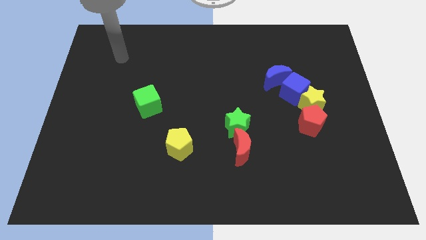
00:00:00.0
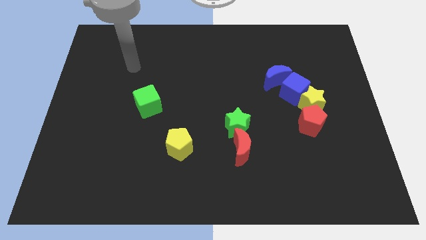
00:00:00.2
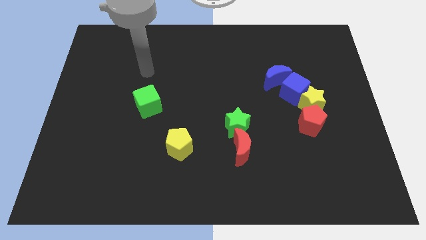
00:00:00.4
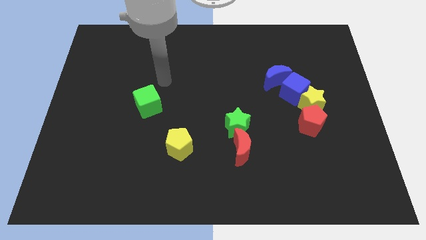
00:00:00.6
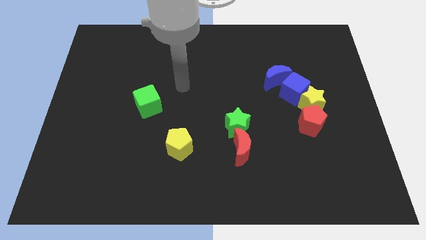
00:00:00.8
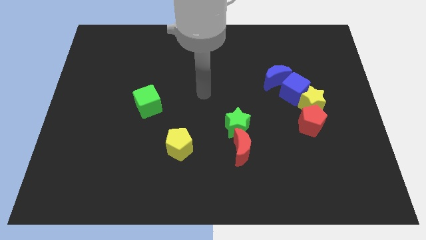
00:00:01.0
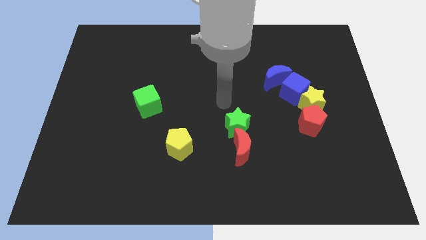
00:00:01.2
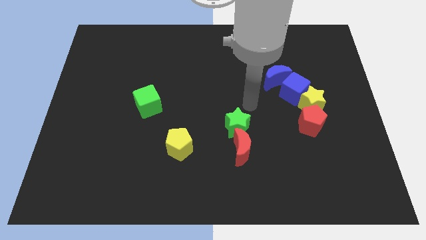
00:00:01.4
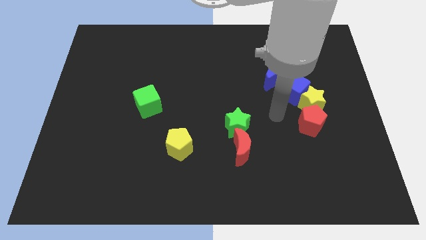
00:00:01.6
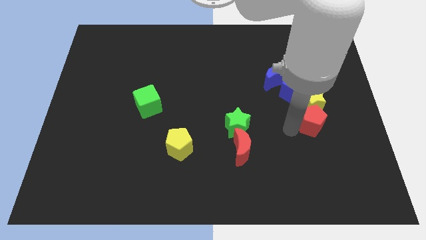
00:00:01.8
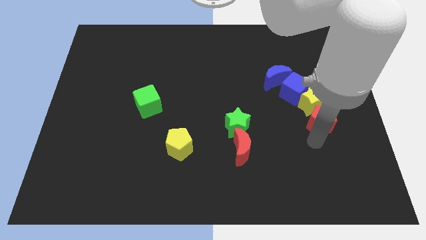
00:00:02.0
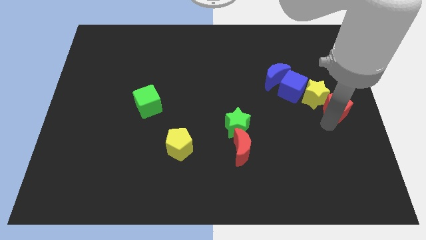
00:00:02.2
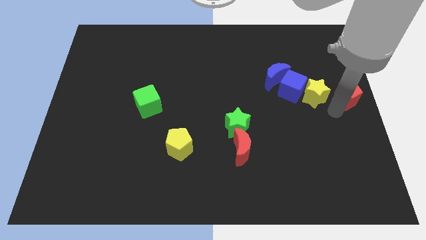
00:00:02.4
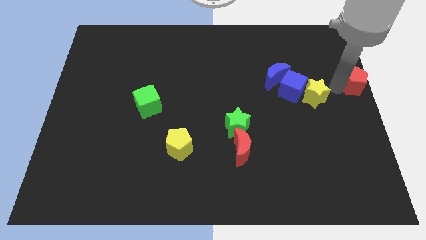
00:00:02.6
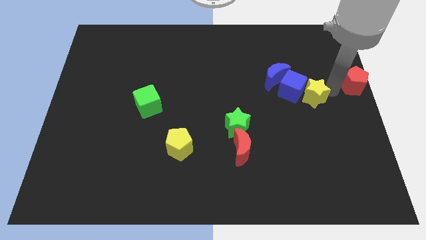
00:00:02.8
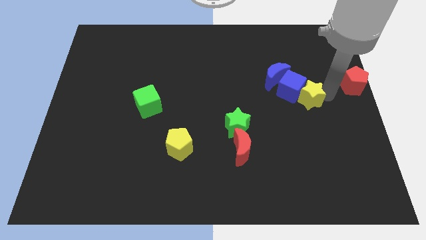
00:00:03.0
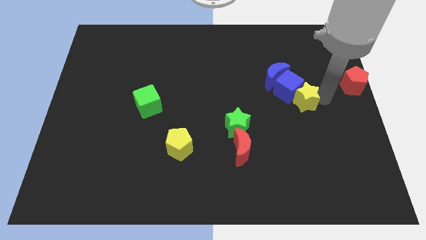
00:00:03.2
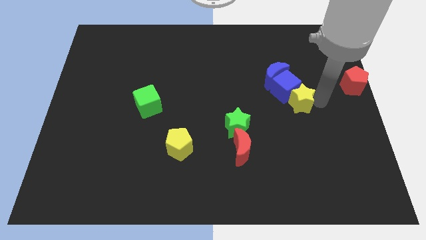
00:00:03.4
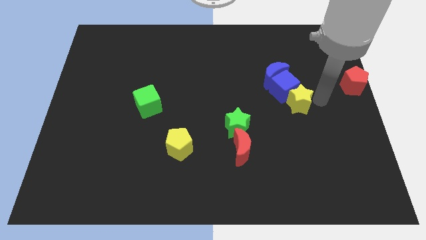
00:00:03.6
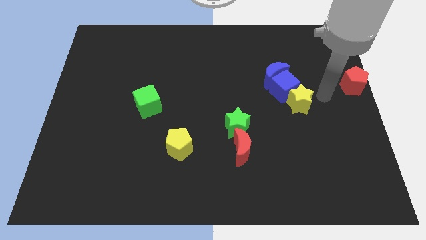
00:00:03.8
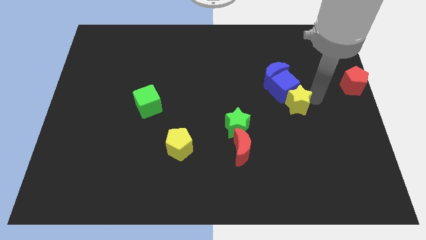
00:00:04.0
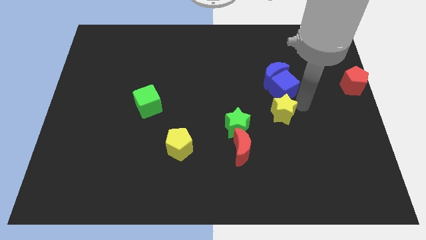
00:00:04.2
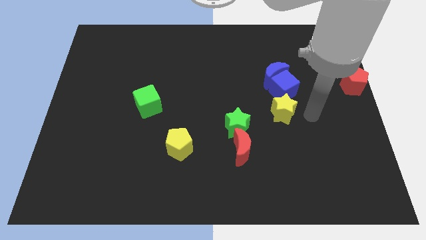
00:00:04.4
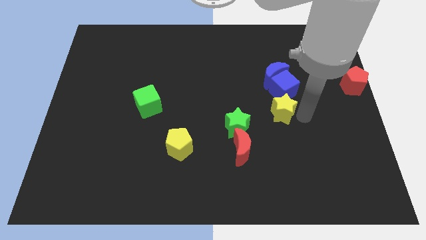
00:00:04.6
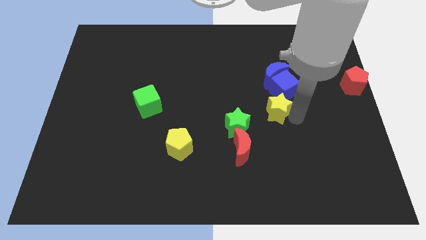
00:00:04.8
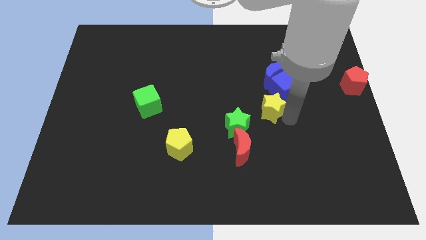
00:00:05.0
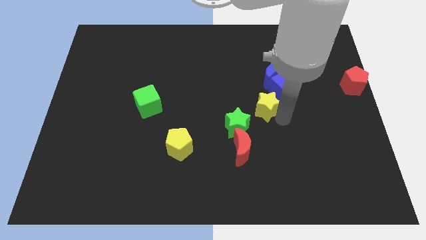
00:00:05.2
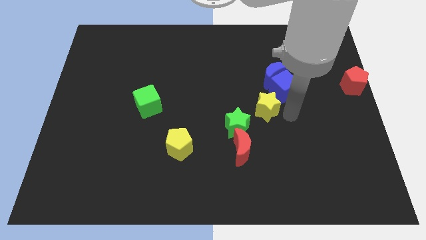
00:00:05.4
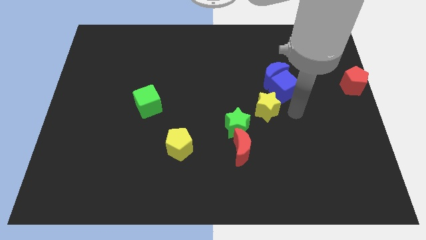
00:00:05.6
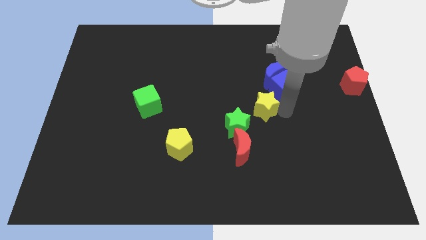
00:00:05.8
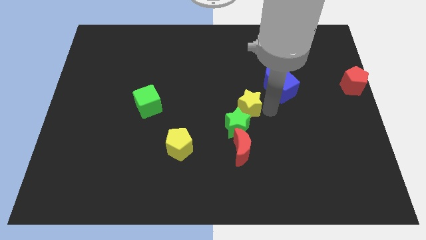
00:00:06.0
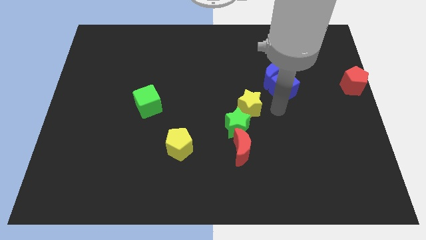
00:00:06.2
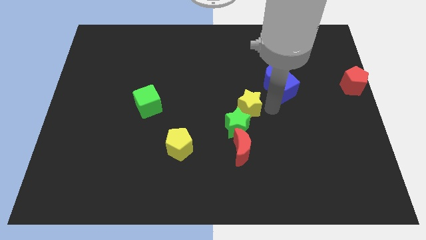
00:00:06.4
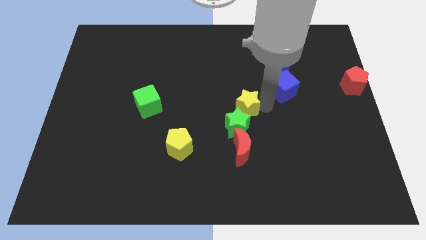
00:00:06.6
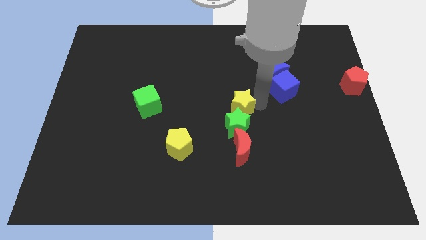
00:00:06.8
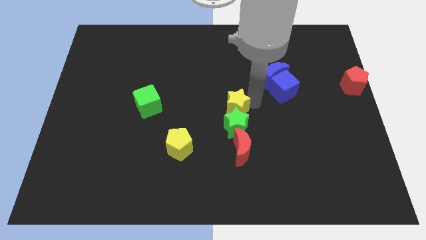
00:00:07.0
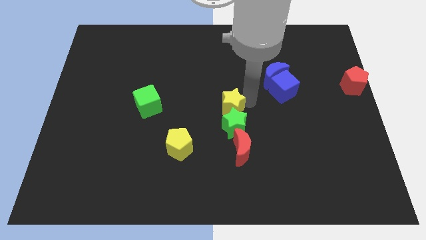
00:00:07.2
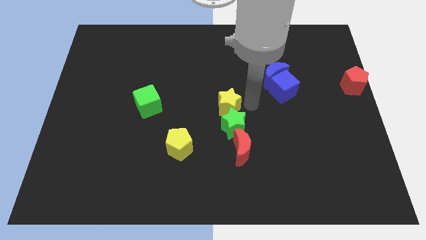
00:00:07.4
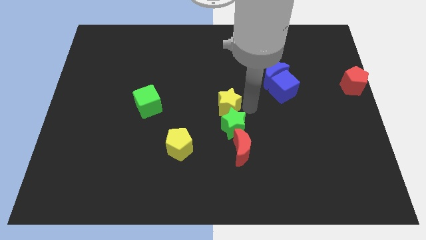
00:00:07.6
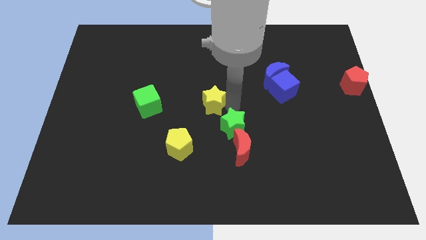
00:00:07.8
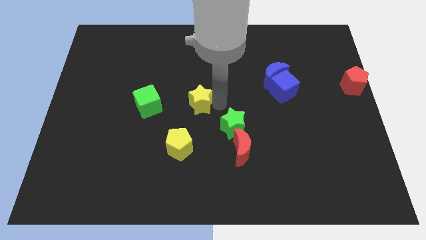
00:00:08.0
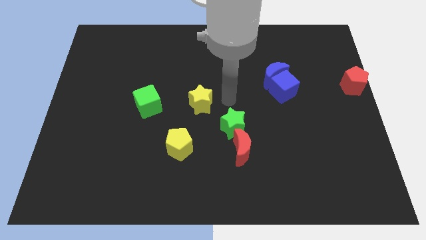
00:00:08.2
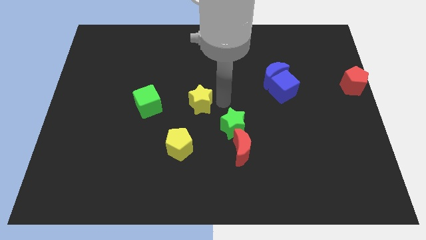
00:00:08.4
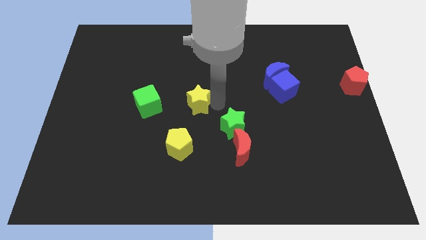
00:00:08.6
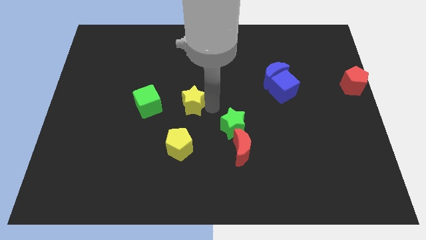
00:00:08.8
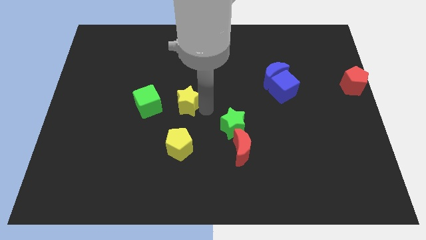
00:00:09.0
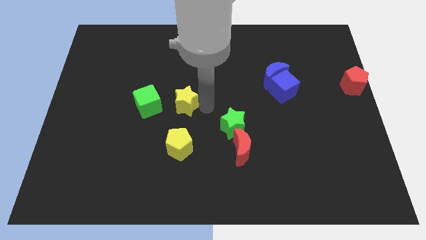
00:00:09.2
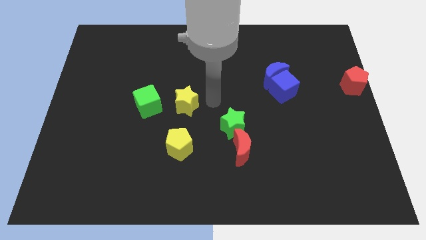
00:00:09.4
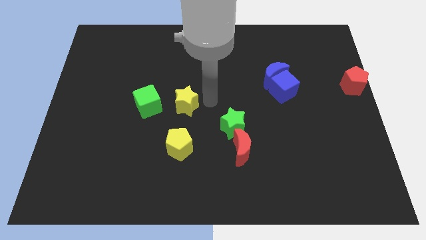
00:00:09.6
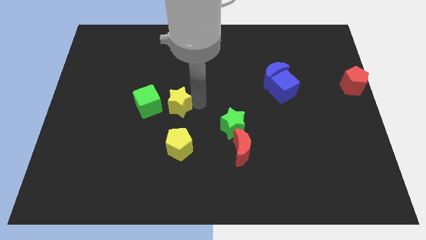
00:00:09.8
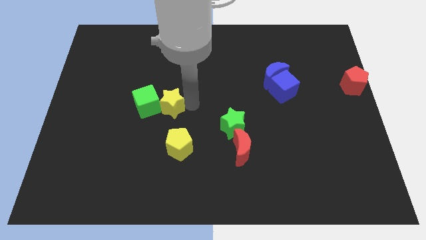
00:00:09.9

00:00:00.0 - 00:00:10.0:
slide the yellow star close to the green cube

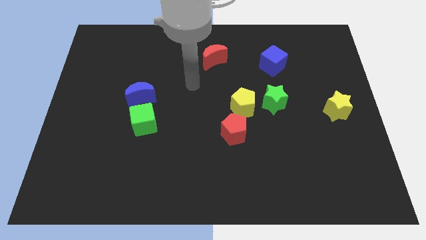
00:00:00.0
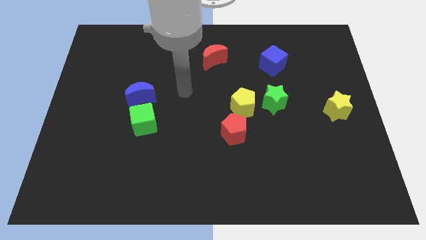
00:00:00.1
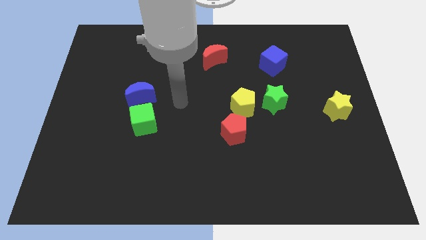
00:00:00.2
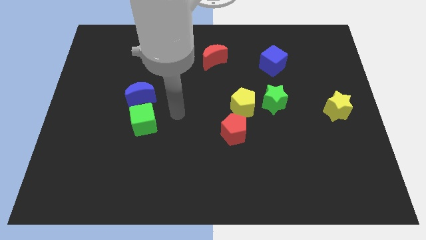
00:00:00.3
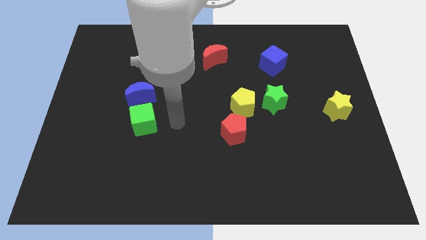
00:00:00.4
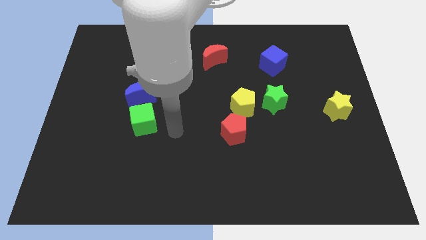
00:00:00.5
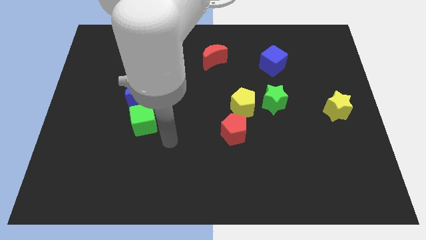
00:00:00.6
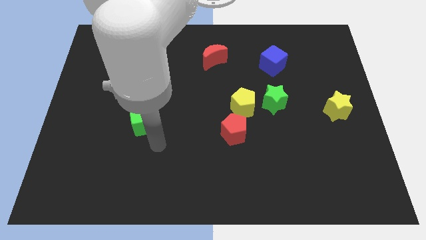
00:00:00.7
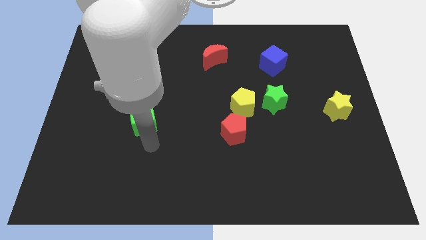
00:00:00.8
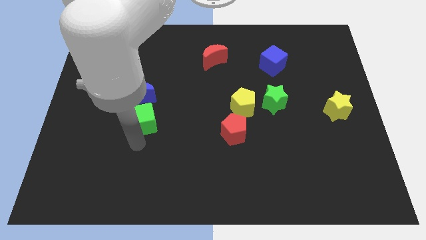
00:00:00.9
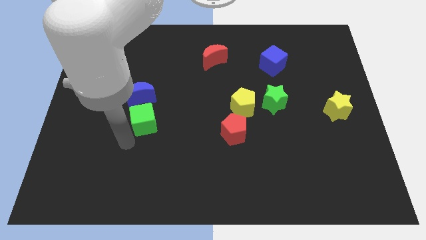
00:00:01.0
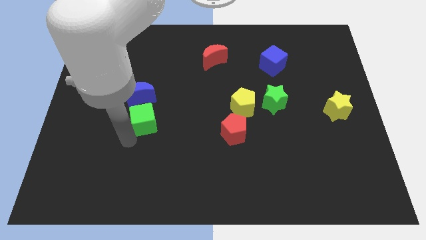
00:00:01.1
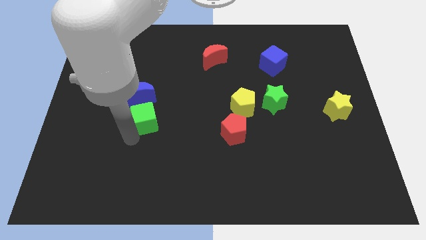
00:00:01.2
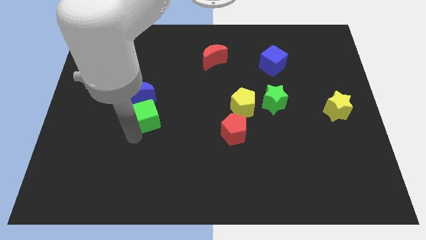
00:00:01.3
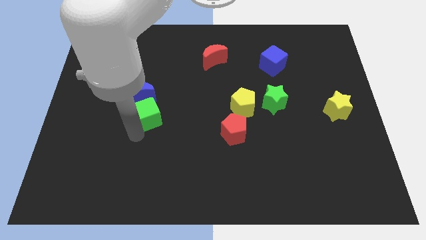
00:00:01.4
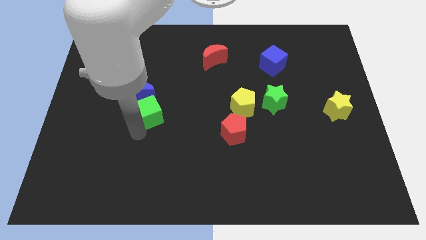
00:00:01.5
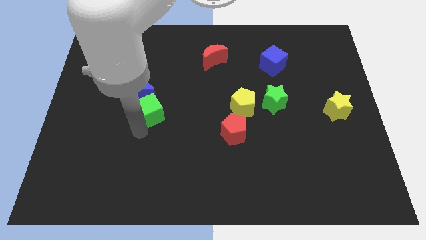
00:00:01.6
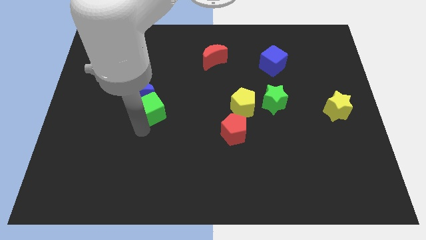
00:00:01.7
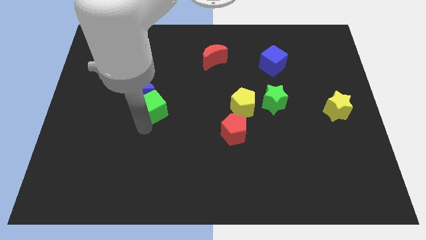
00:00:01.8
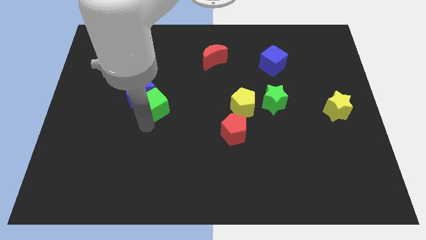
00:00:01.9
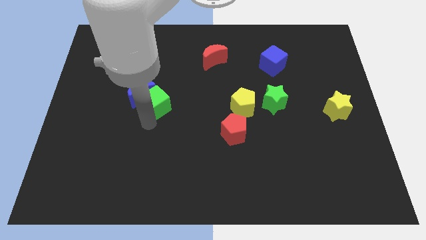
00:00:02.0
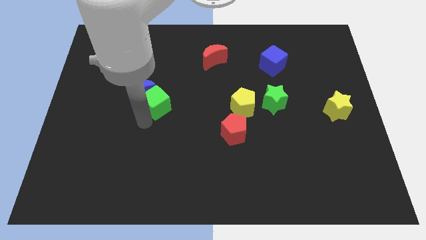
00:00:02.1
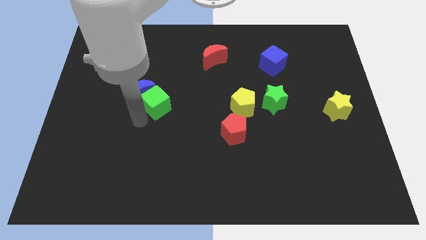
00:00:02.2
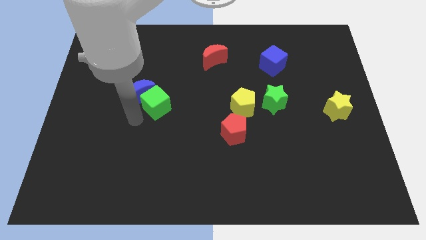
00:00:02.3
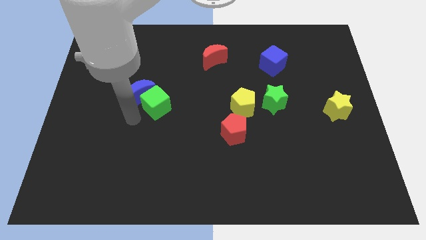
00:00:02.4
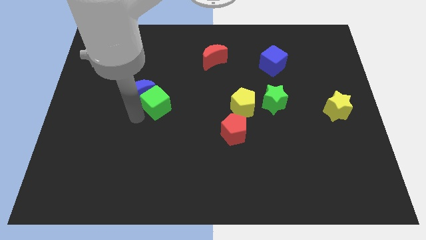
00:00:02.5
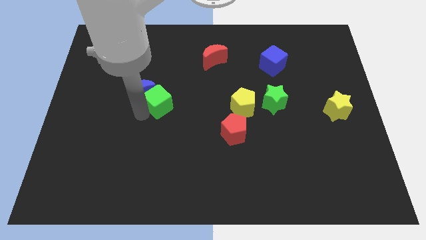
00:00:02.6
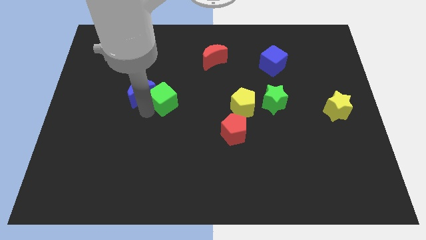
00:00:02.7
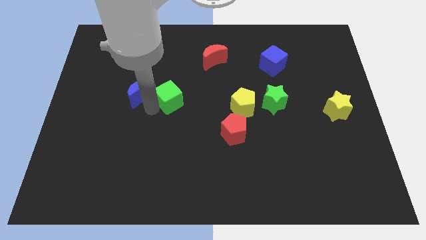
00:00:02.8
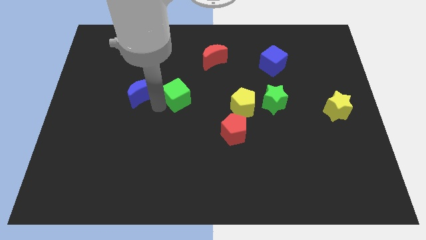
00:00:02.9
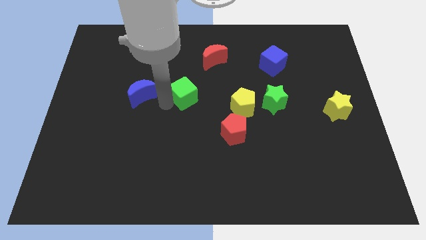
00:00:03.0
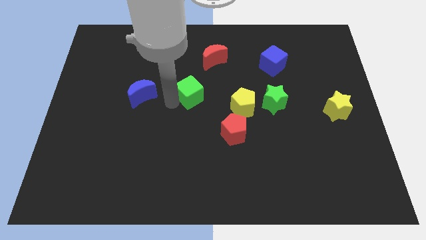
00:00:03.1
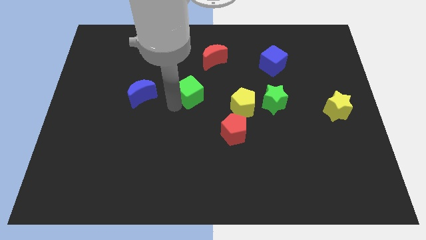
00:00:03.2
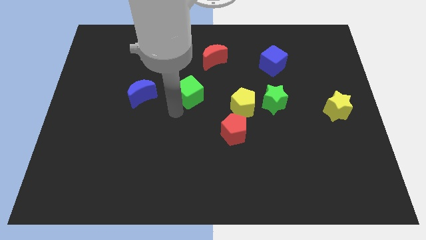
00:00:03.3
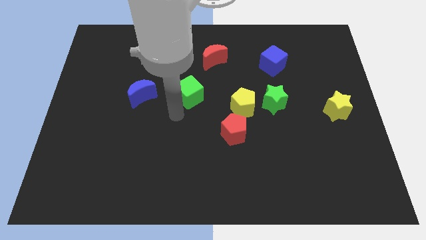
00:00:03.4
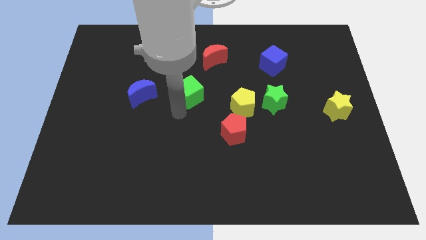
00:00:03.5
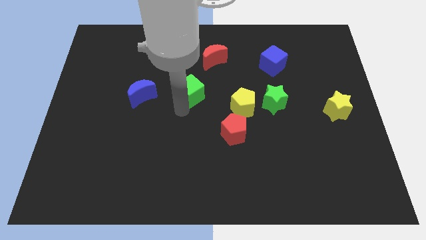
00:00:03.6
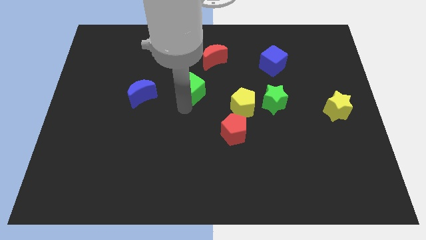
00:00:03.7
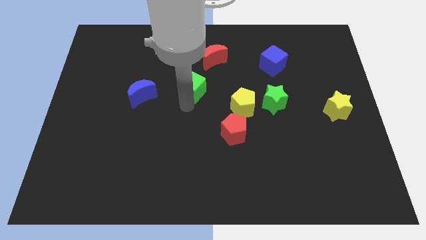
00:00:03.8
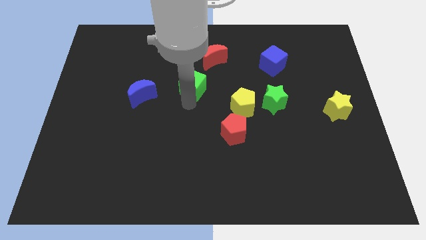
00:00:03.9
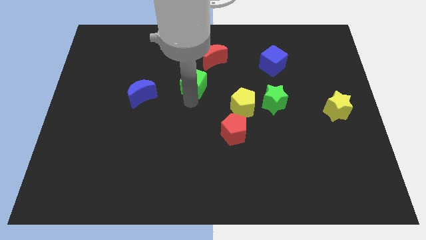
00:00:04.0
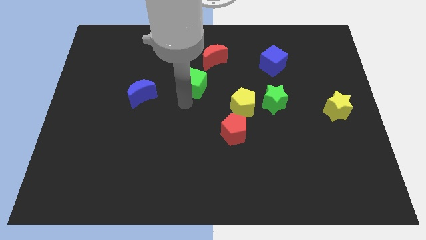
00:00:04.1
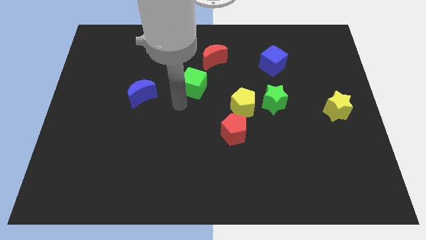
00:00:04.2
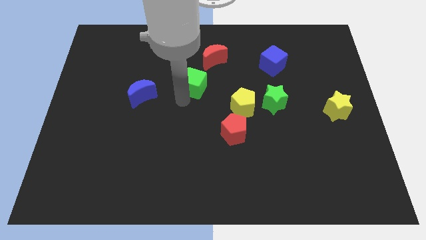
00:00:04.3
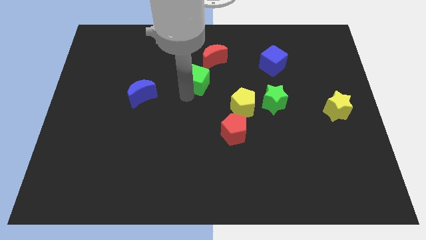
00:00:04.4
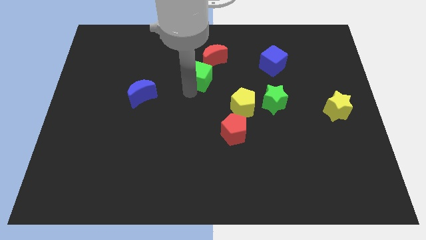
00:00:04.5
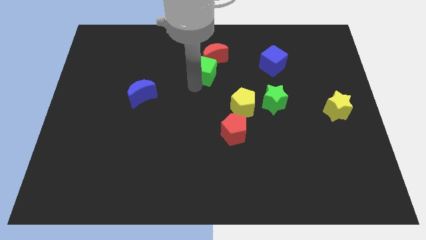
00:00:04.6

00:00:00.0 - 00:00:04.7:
move the green cube towards the red moon
